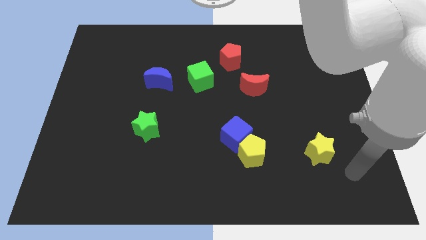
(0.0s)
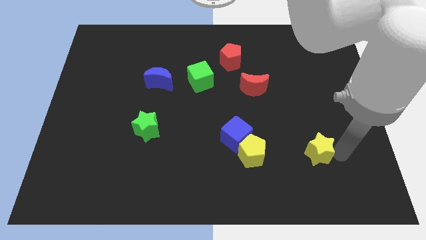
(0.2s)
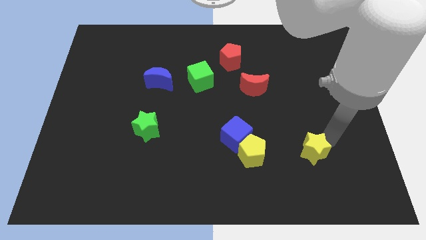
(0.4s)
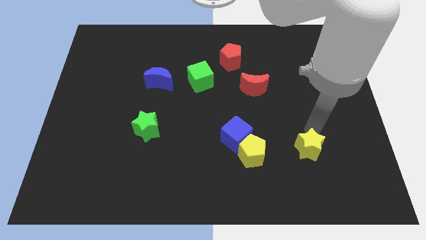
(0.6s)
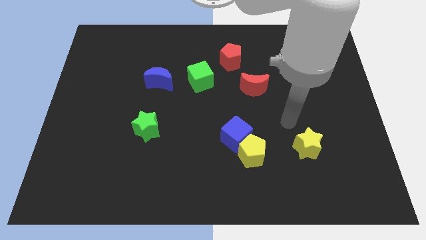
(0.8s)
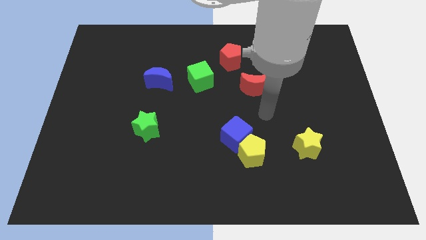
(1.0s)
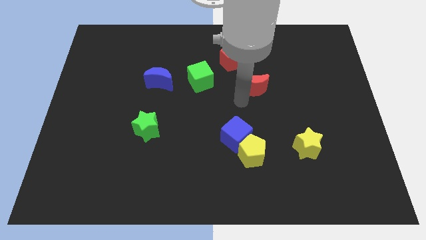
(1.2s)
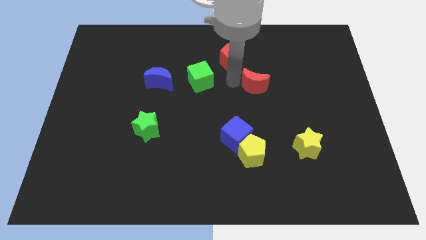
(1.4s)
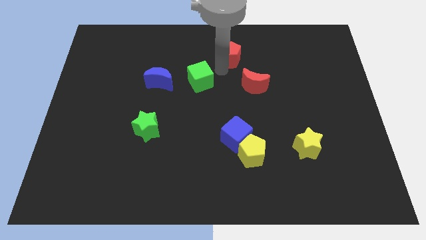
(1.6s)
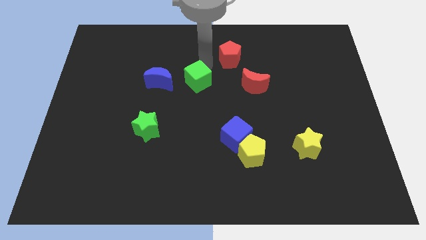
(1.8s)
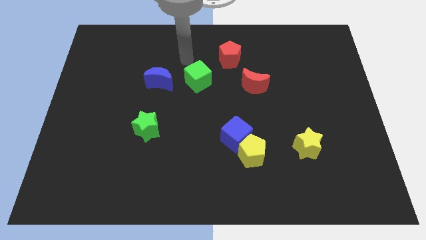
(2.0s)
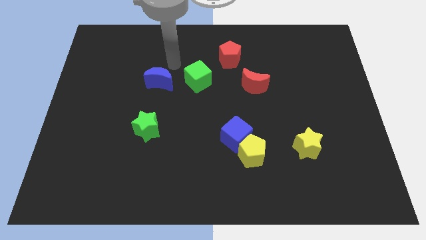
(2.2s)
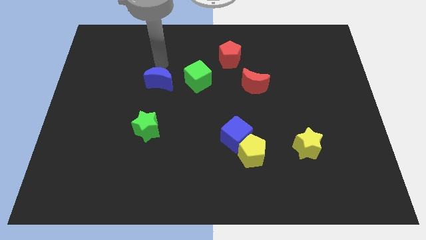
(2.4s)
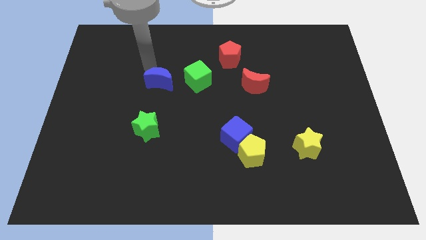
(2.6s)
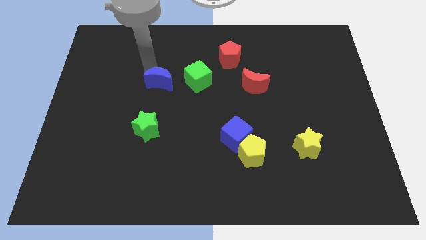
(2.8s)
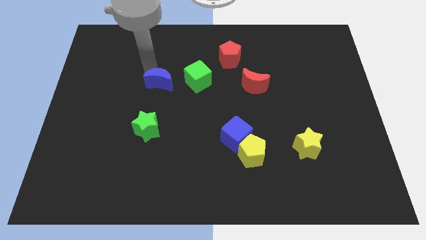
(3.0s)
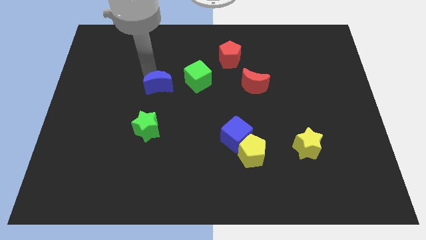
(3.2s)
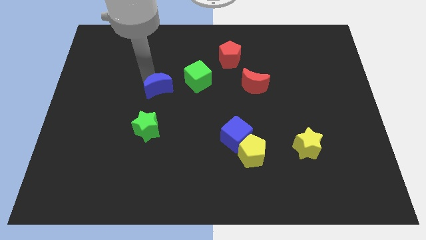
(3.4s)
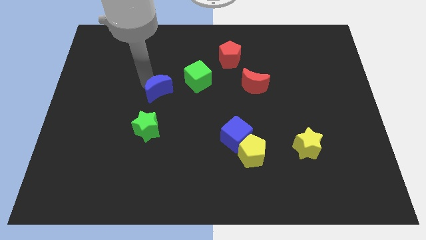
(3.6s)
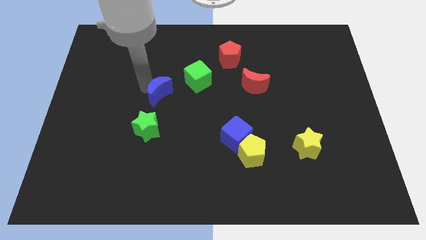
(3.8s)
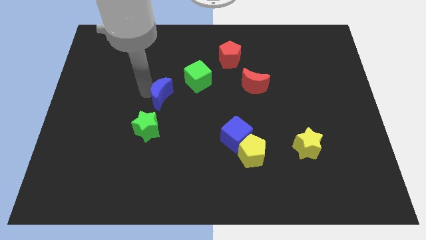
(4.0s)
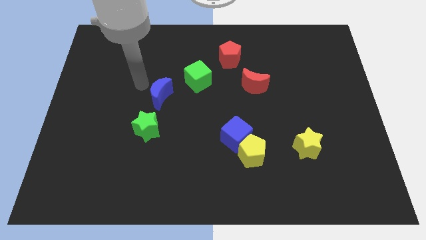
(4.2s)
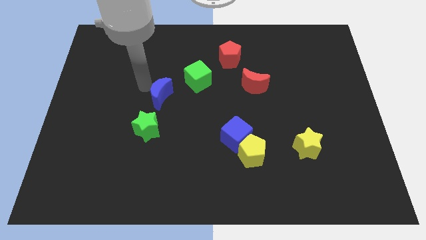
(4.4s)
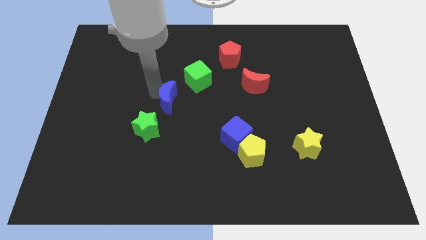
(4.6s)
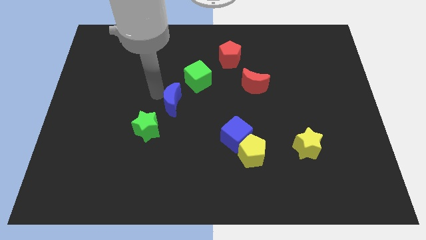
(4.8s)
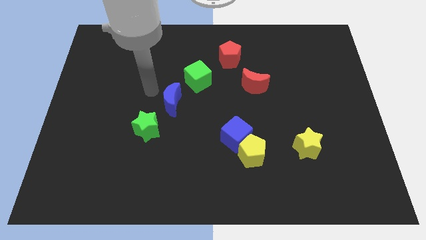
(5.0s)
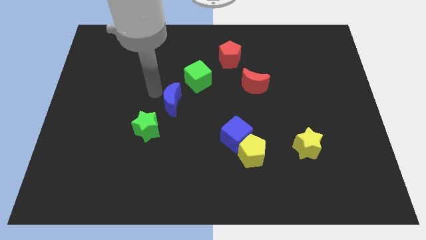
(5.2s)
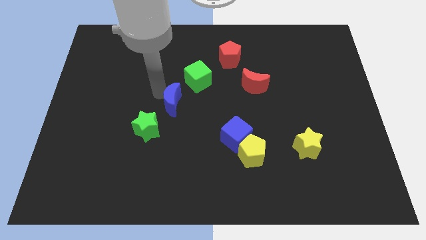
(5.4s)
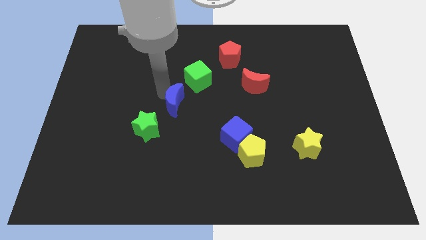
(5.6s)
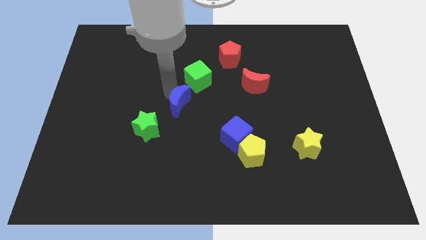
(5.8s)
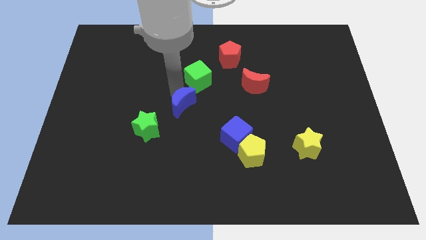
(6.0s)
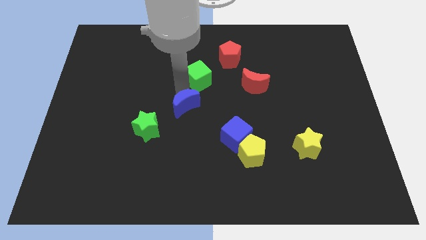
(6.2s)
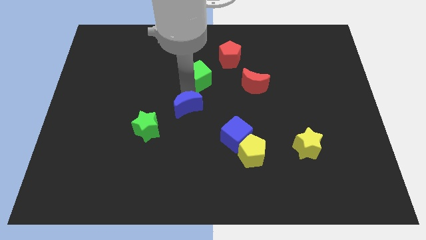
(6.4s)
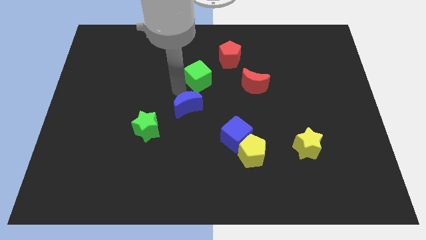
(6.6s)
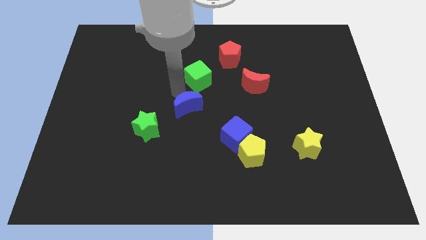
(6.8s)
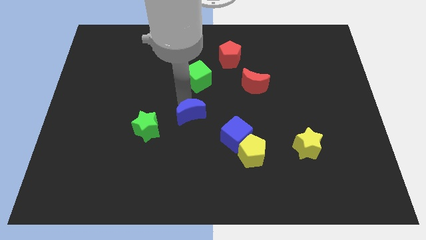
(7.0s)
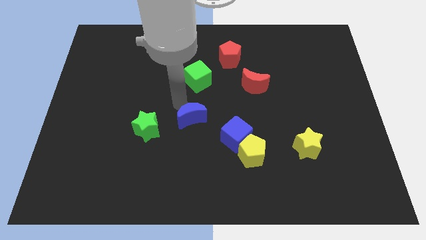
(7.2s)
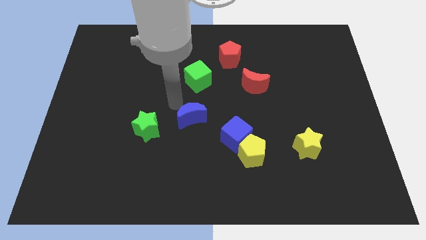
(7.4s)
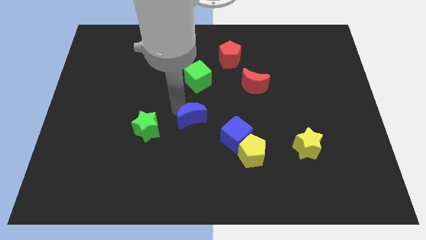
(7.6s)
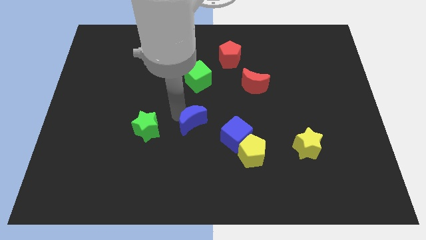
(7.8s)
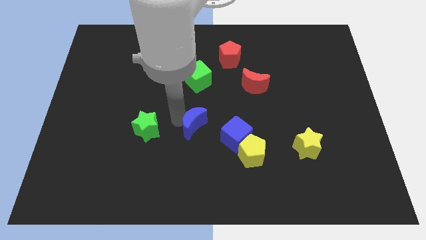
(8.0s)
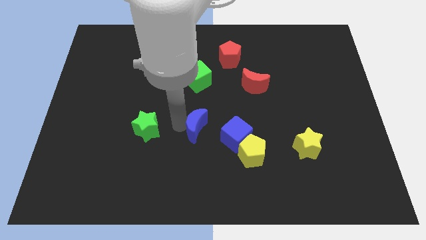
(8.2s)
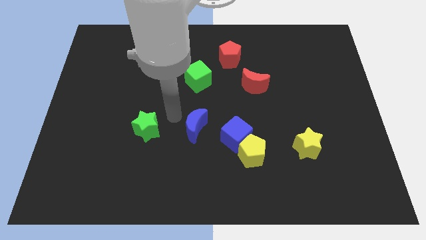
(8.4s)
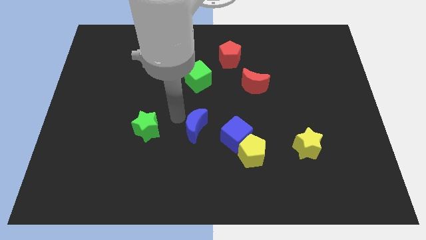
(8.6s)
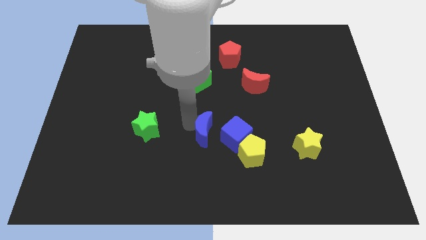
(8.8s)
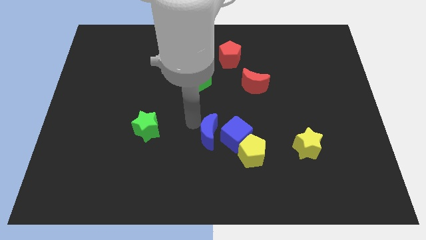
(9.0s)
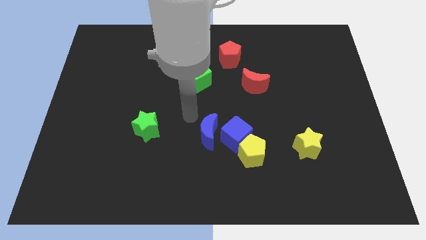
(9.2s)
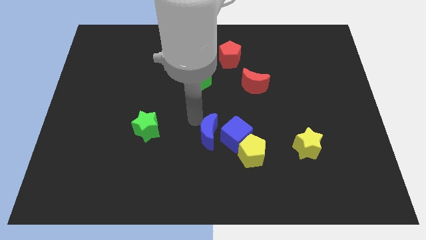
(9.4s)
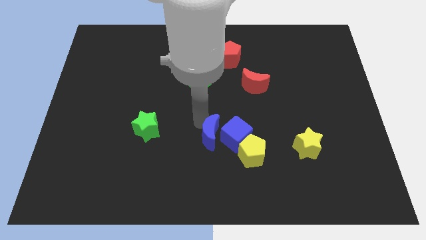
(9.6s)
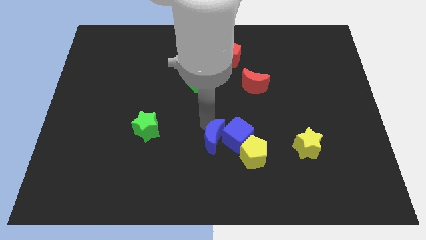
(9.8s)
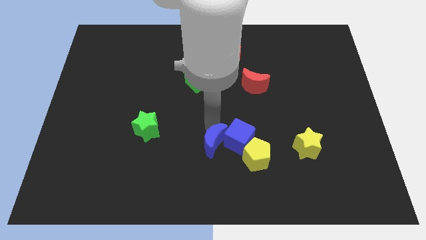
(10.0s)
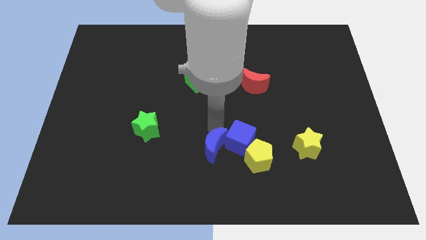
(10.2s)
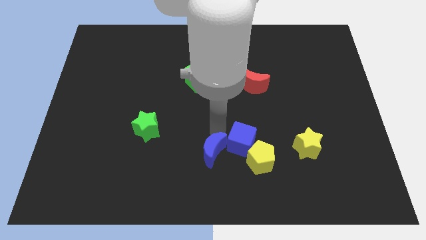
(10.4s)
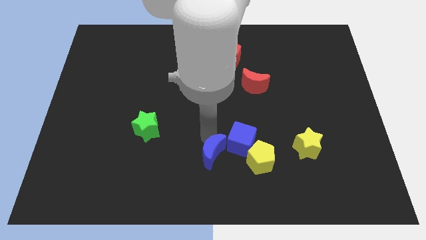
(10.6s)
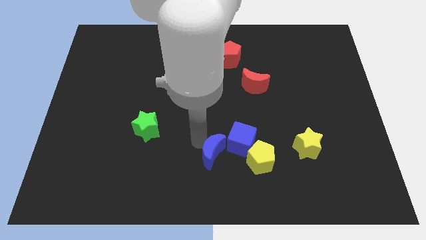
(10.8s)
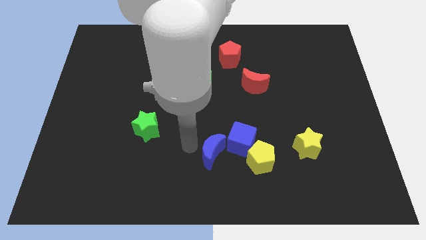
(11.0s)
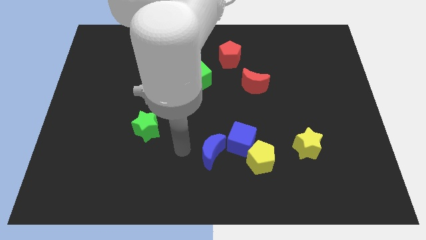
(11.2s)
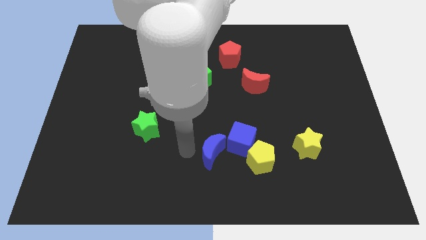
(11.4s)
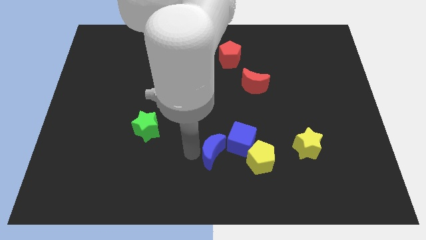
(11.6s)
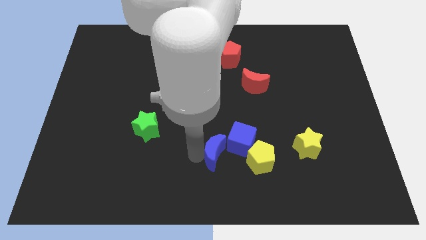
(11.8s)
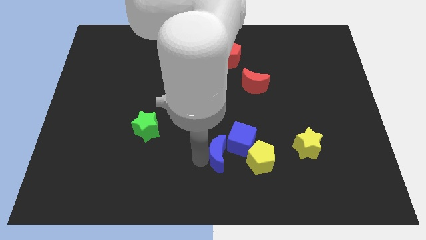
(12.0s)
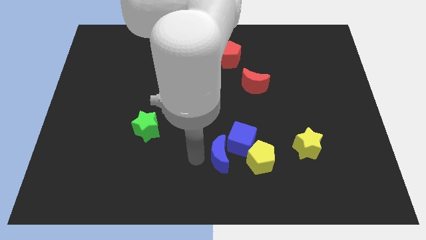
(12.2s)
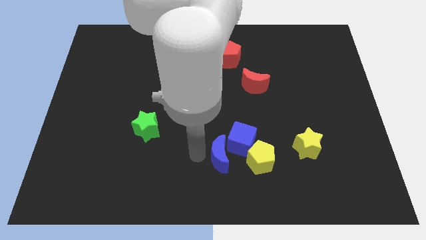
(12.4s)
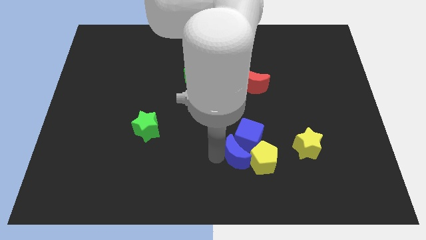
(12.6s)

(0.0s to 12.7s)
slide the blue moon close to the yellow pentagon

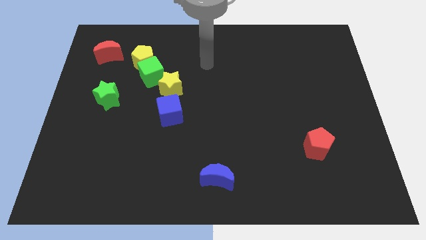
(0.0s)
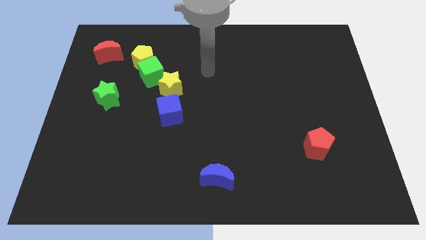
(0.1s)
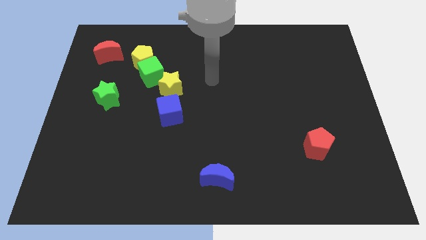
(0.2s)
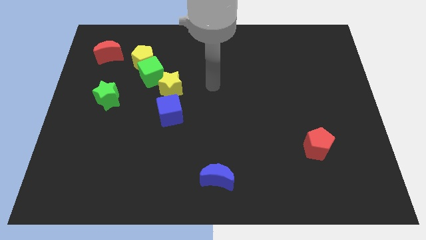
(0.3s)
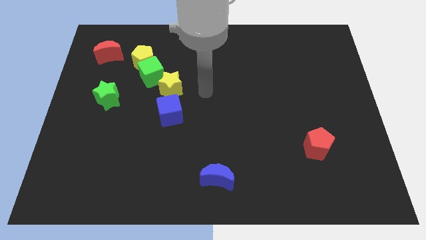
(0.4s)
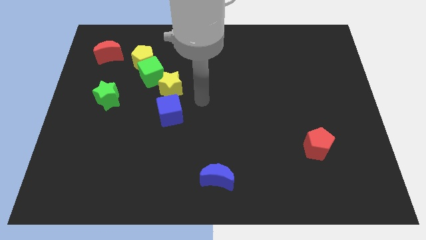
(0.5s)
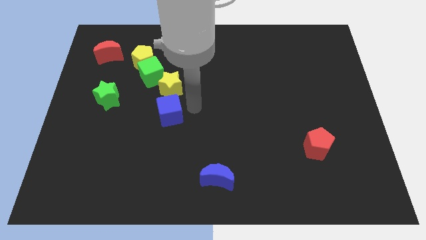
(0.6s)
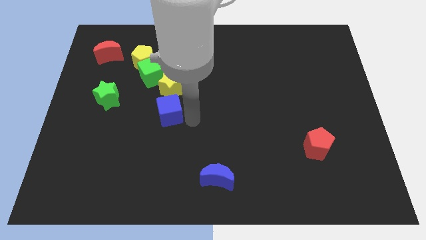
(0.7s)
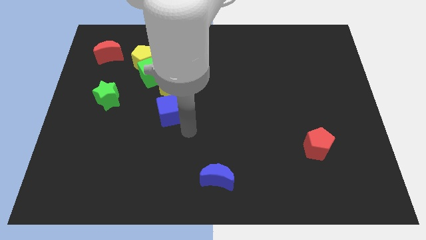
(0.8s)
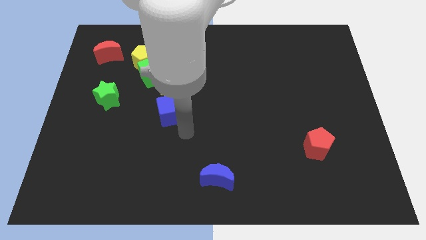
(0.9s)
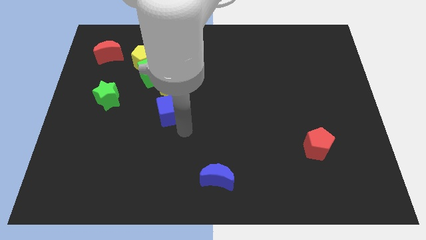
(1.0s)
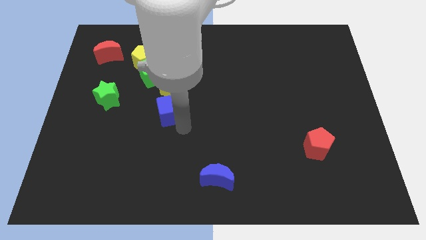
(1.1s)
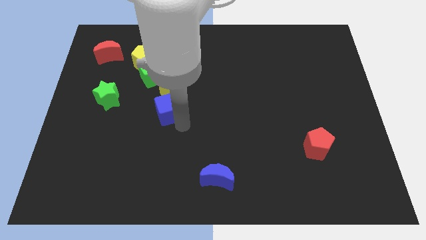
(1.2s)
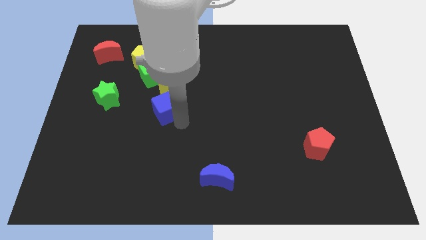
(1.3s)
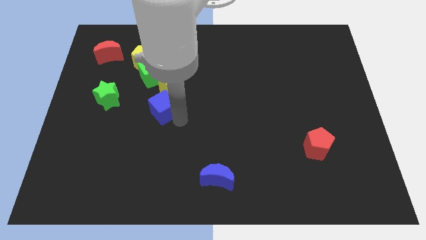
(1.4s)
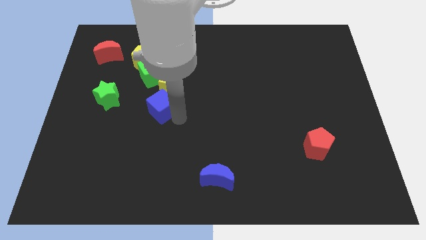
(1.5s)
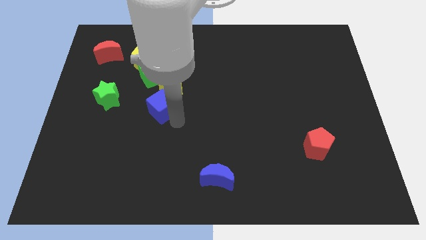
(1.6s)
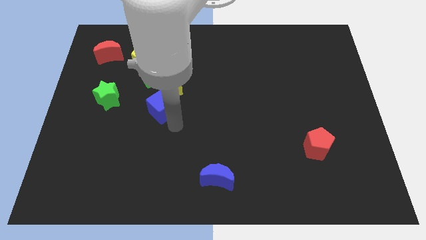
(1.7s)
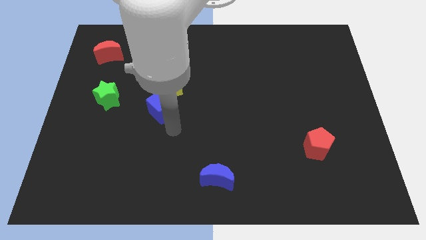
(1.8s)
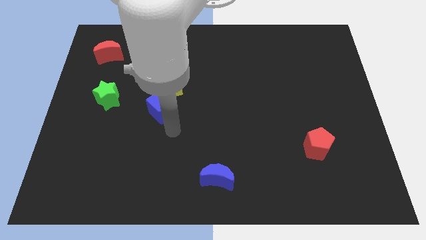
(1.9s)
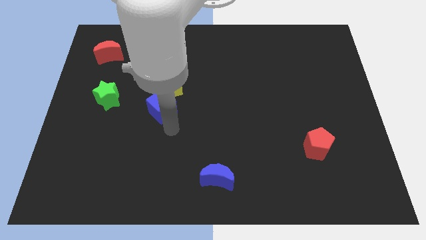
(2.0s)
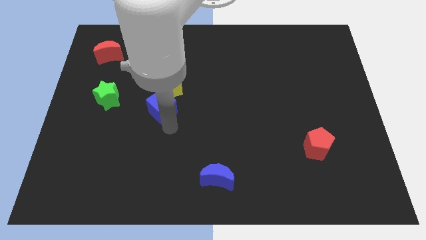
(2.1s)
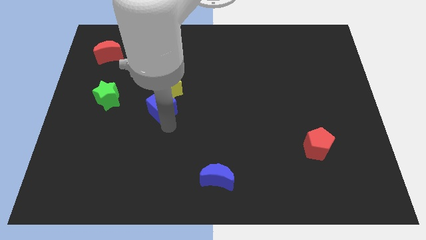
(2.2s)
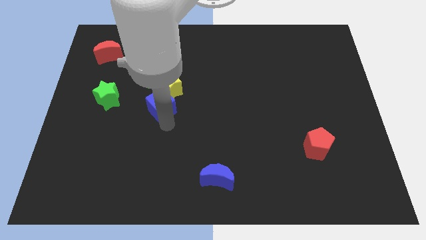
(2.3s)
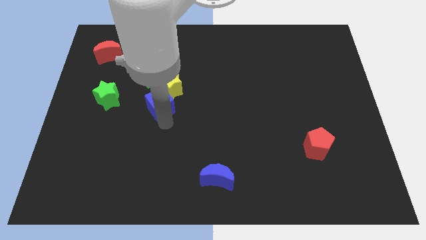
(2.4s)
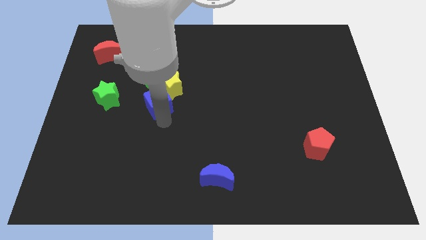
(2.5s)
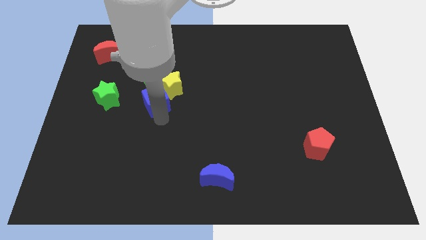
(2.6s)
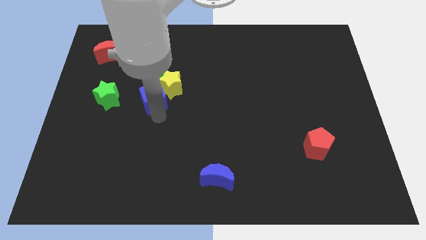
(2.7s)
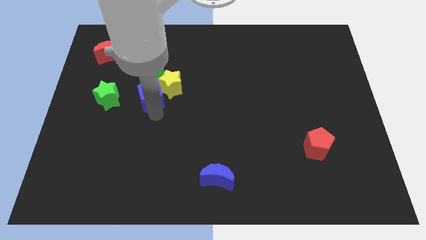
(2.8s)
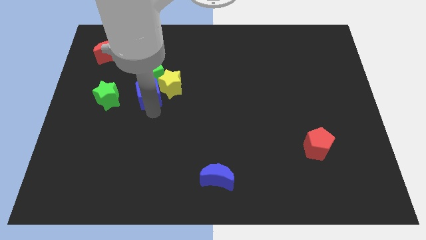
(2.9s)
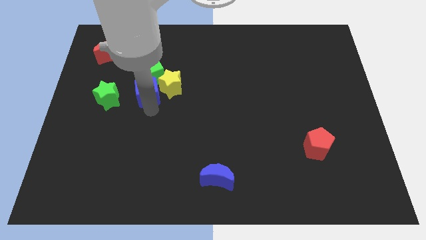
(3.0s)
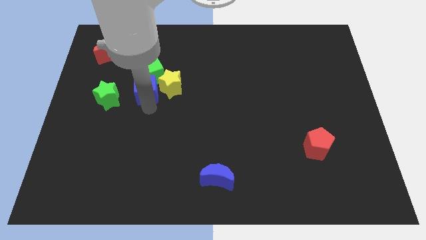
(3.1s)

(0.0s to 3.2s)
put the blue cube to the green cube
